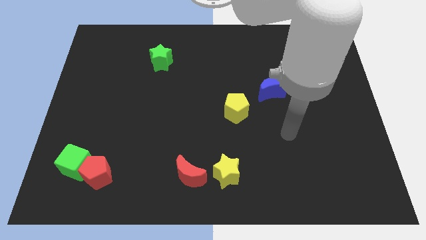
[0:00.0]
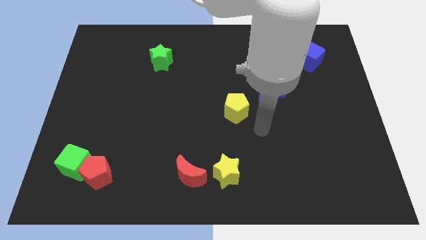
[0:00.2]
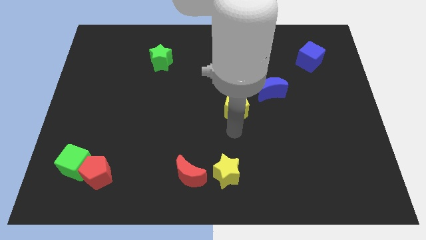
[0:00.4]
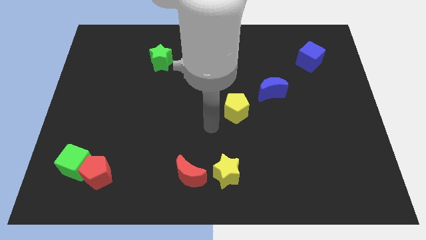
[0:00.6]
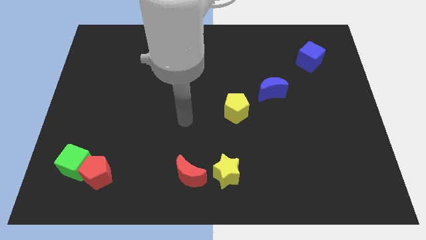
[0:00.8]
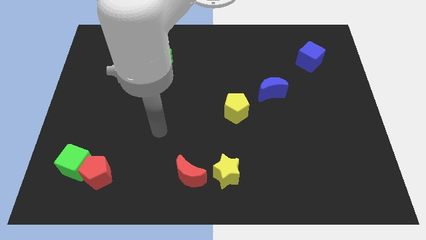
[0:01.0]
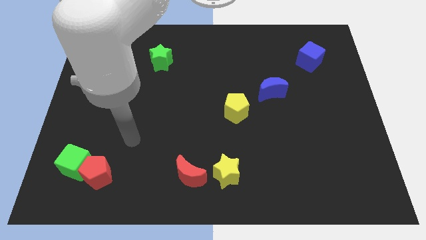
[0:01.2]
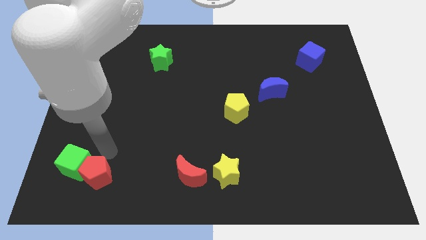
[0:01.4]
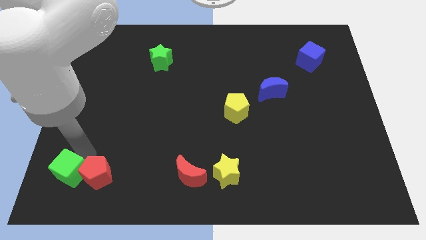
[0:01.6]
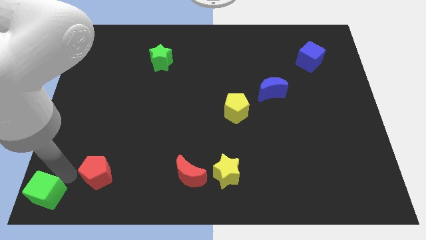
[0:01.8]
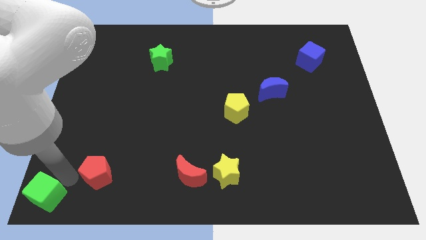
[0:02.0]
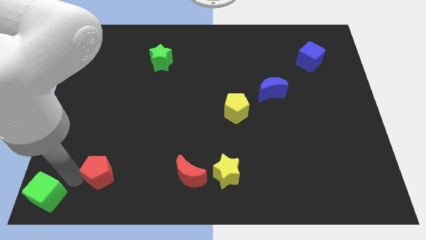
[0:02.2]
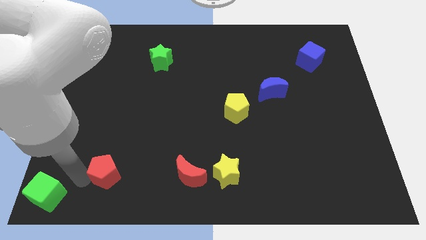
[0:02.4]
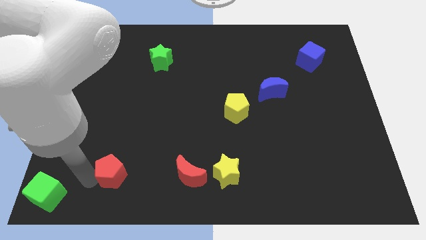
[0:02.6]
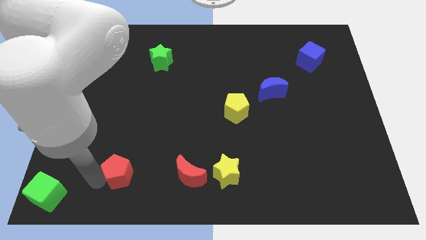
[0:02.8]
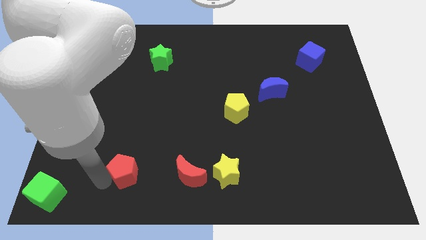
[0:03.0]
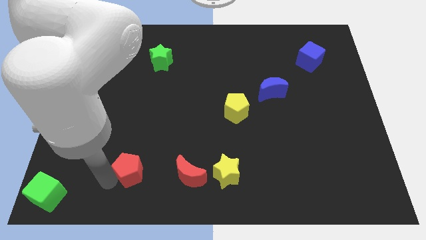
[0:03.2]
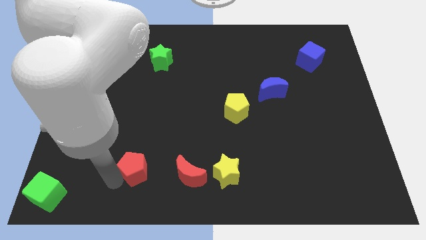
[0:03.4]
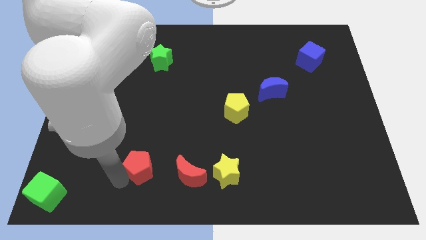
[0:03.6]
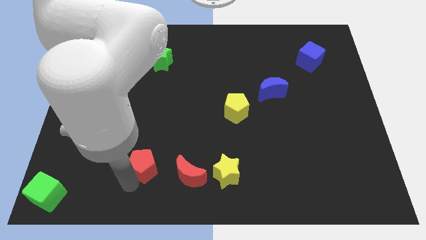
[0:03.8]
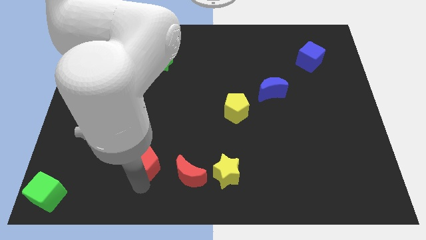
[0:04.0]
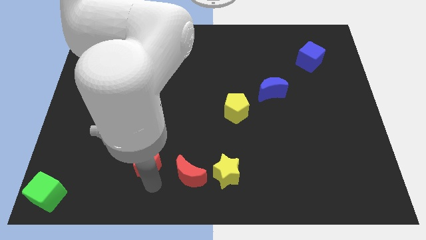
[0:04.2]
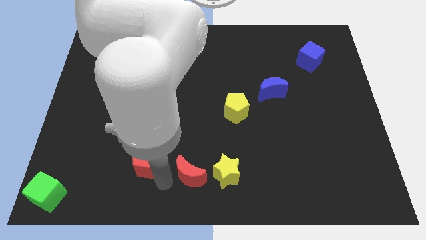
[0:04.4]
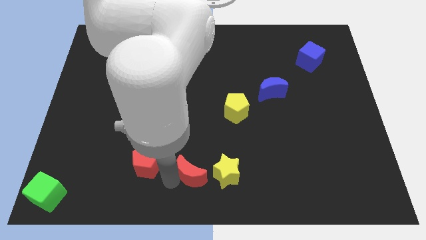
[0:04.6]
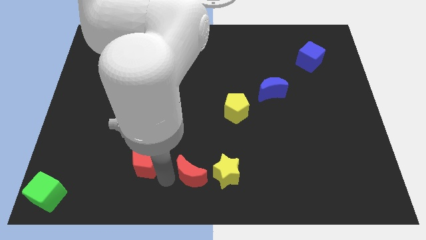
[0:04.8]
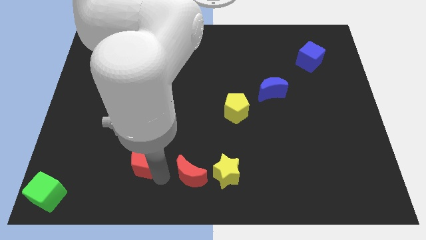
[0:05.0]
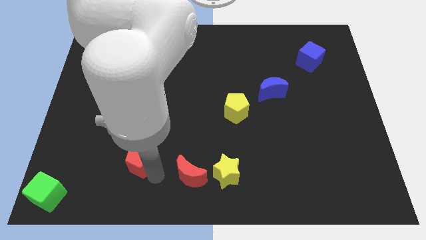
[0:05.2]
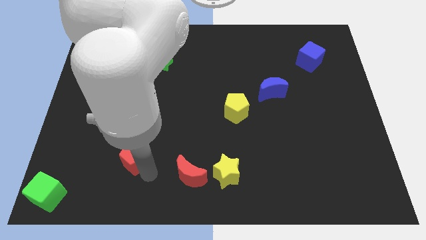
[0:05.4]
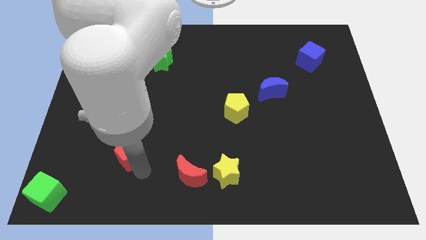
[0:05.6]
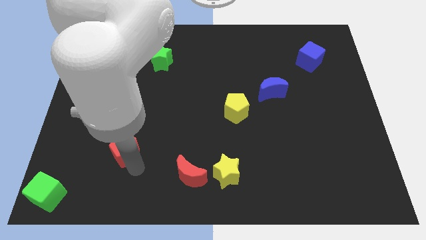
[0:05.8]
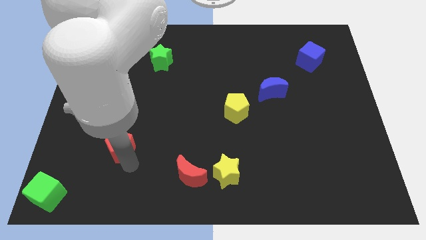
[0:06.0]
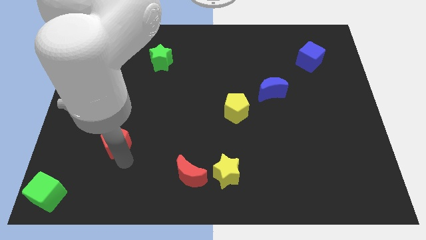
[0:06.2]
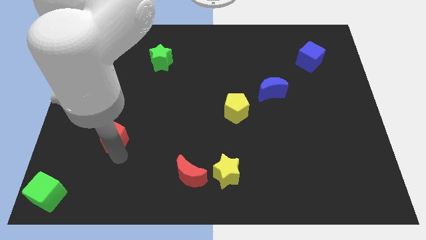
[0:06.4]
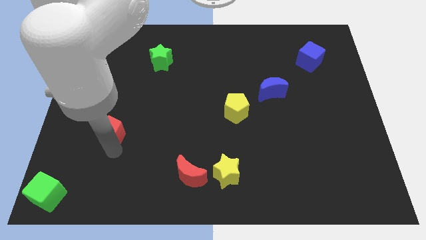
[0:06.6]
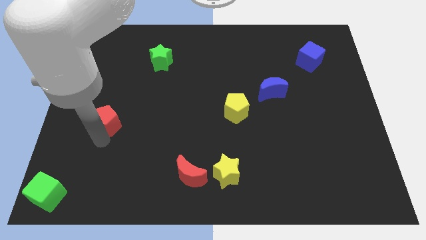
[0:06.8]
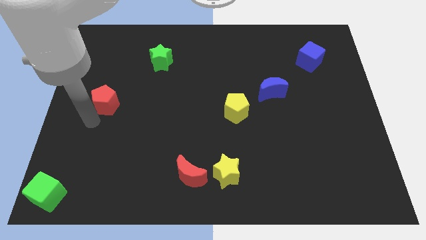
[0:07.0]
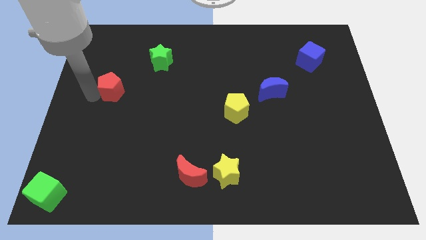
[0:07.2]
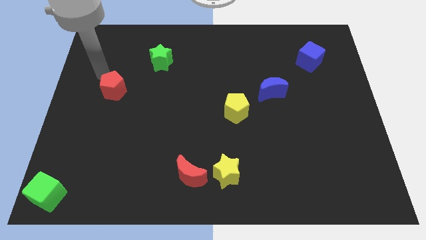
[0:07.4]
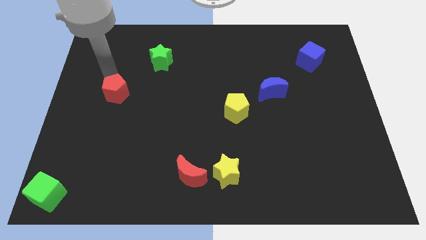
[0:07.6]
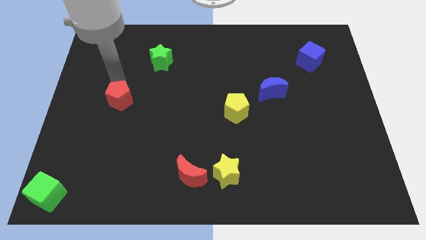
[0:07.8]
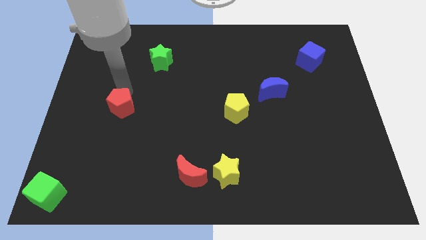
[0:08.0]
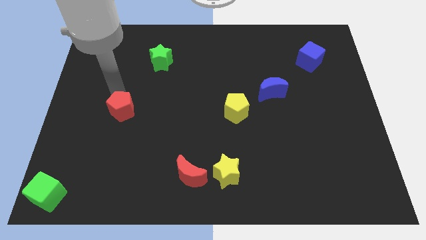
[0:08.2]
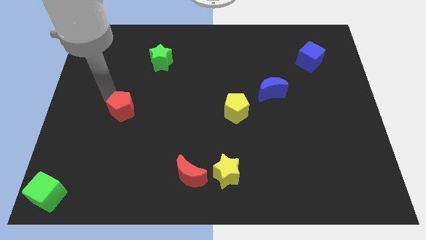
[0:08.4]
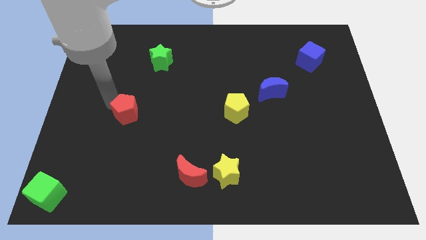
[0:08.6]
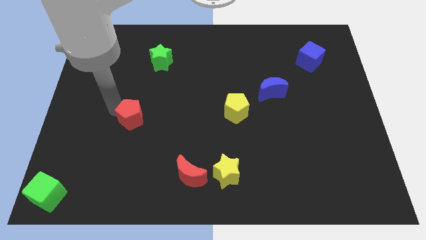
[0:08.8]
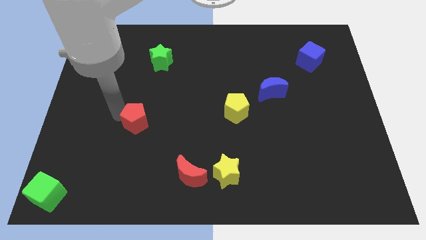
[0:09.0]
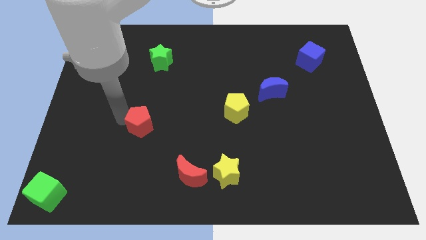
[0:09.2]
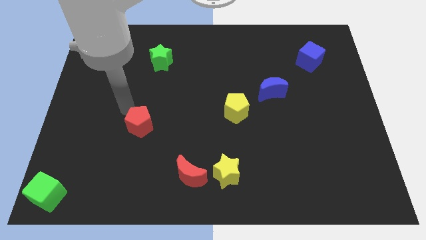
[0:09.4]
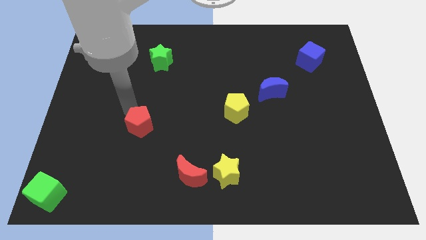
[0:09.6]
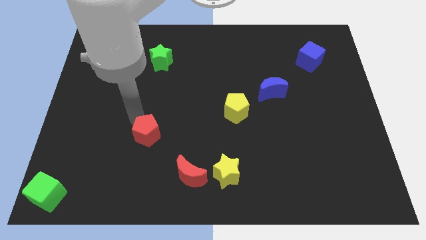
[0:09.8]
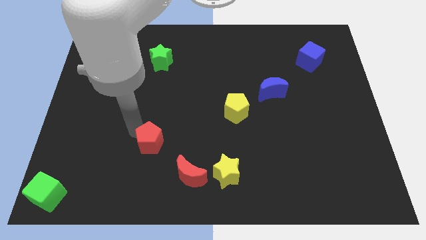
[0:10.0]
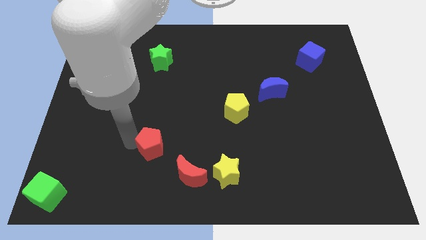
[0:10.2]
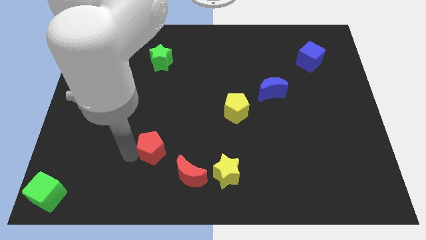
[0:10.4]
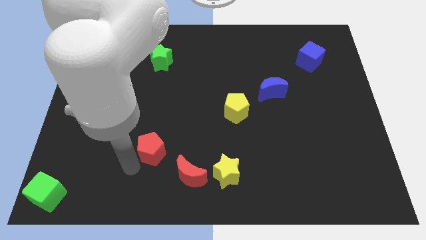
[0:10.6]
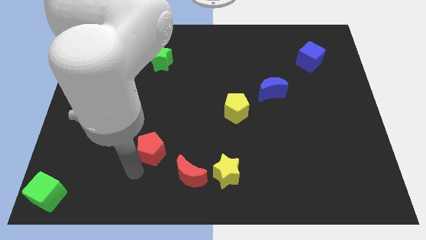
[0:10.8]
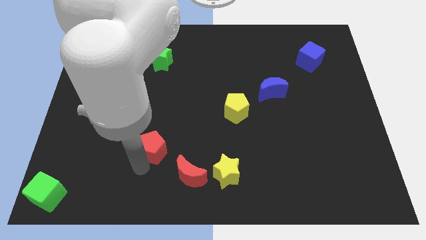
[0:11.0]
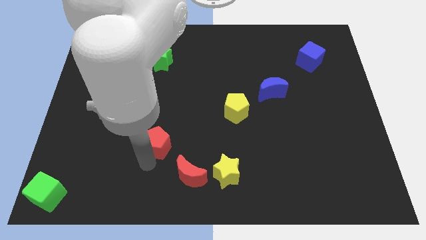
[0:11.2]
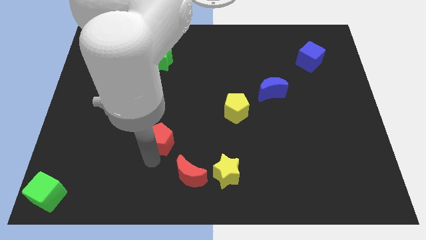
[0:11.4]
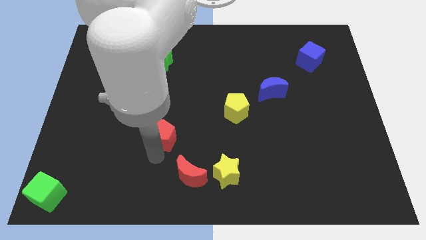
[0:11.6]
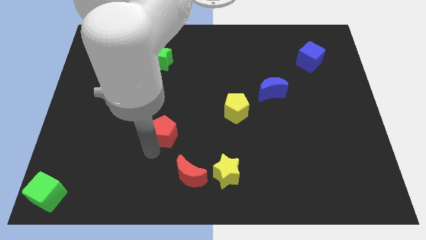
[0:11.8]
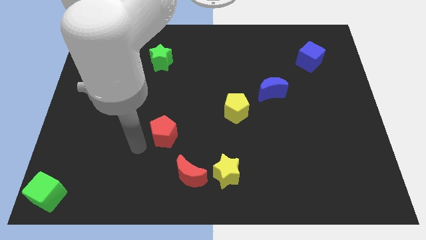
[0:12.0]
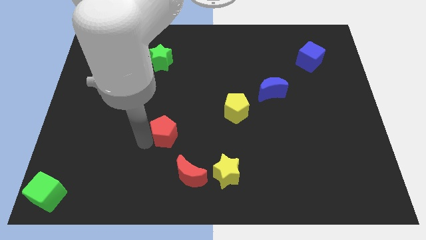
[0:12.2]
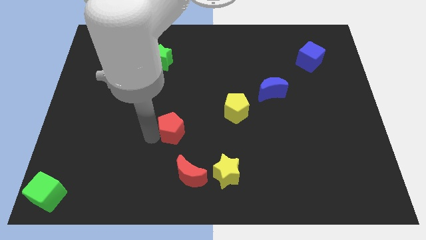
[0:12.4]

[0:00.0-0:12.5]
move the red pentagon to the middle of the board

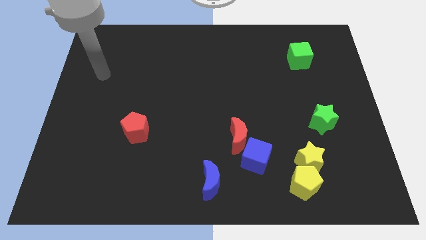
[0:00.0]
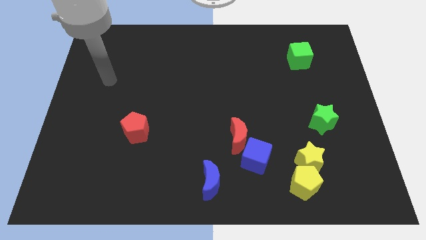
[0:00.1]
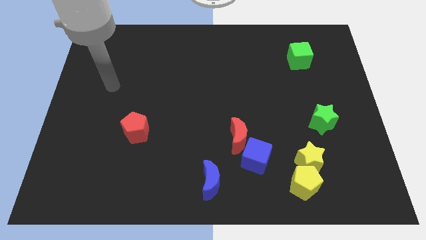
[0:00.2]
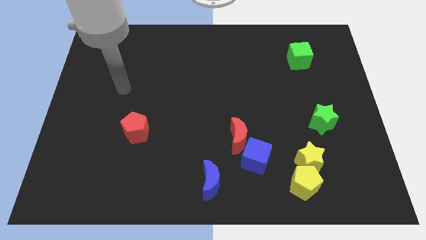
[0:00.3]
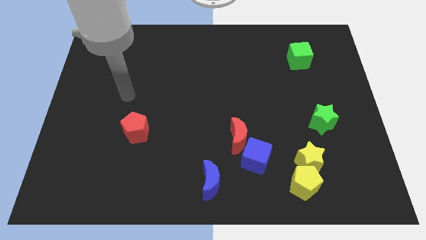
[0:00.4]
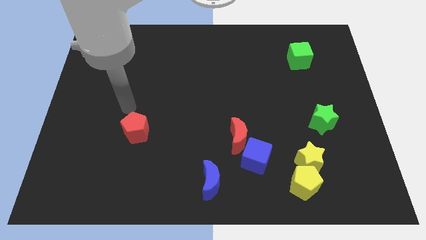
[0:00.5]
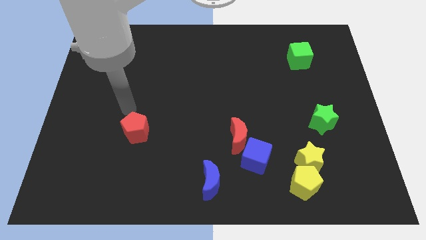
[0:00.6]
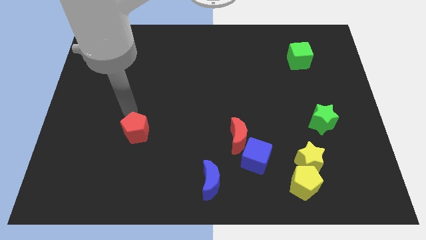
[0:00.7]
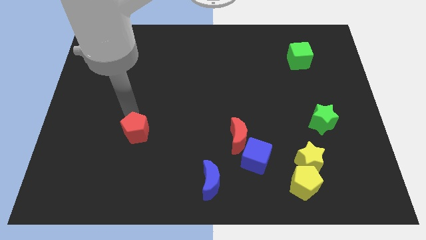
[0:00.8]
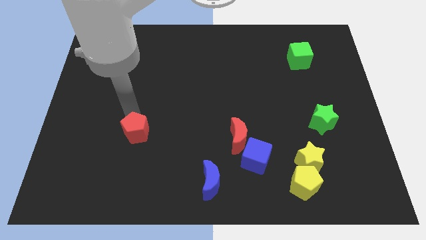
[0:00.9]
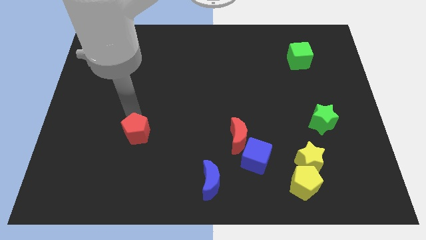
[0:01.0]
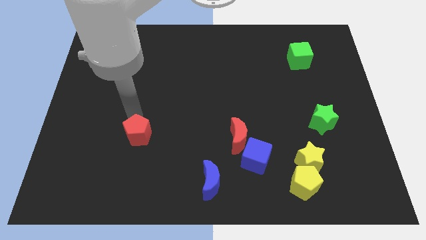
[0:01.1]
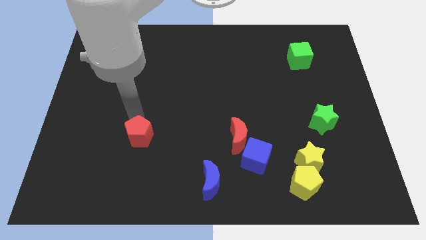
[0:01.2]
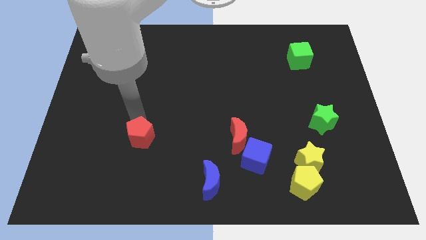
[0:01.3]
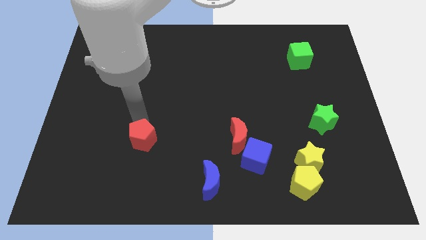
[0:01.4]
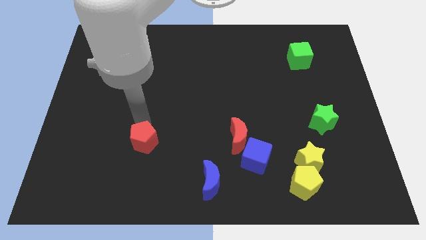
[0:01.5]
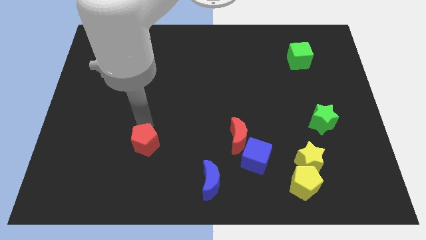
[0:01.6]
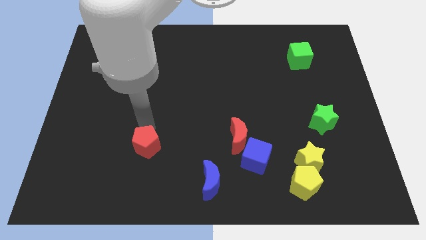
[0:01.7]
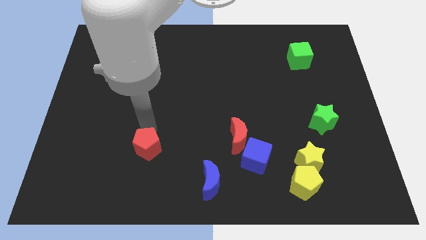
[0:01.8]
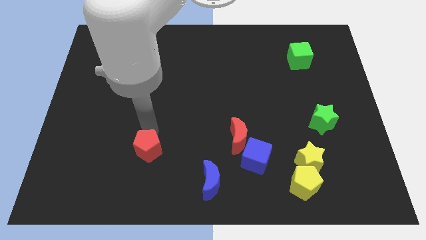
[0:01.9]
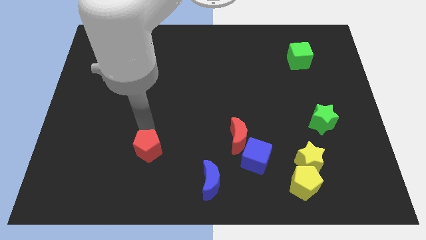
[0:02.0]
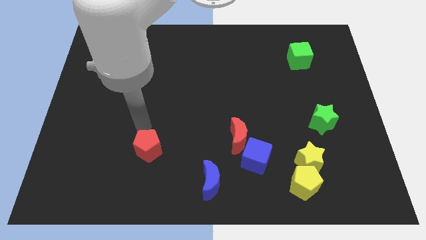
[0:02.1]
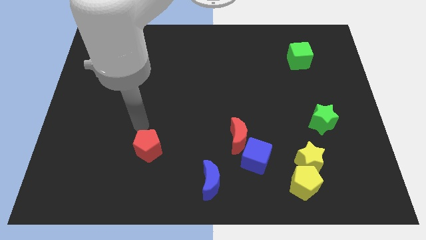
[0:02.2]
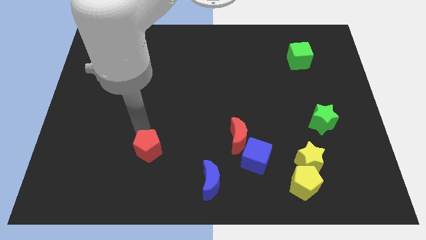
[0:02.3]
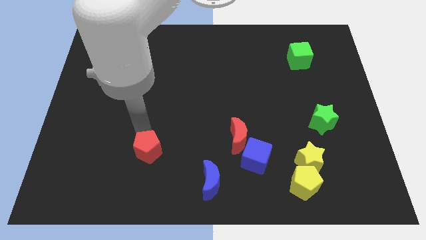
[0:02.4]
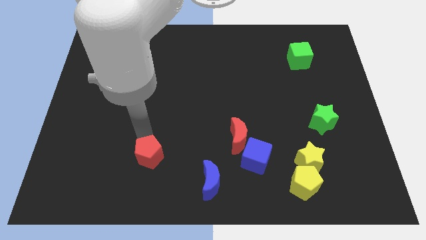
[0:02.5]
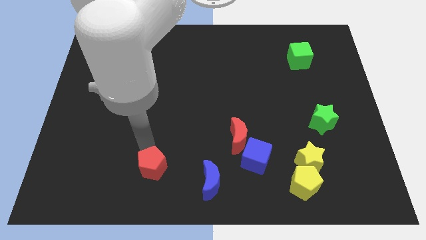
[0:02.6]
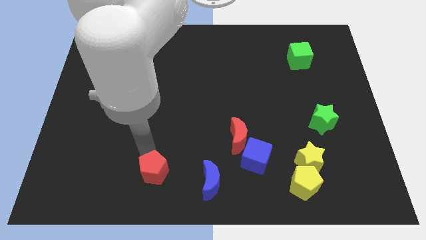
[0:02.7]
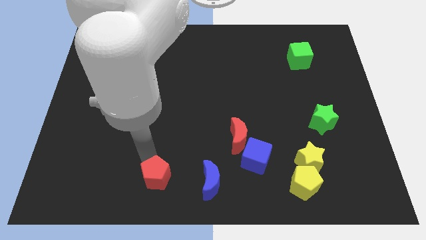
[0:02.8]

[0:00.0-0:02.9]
push the red pentagon to the bottom
